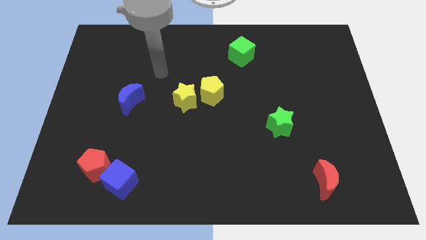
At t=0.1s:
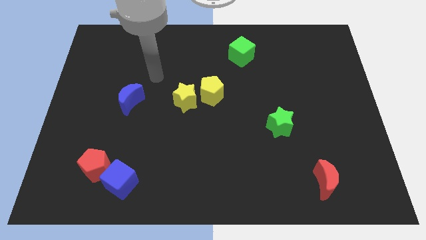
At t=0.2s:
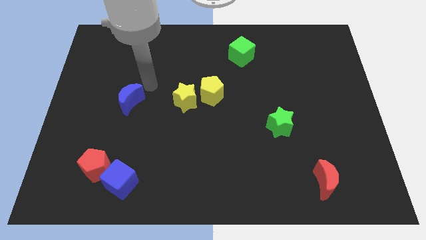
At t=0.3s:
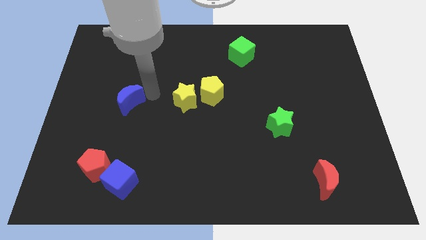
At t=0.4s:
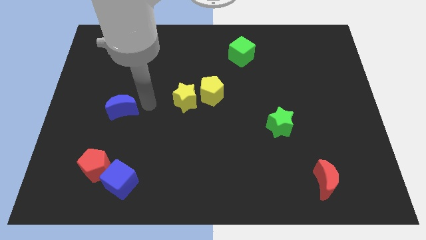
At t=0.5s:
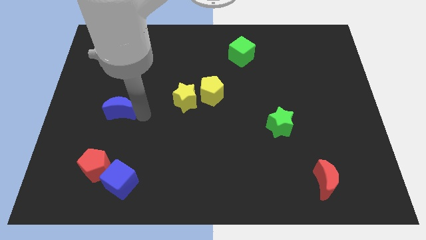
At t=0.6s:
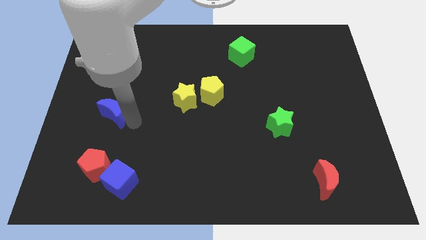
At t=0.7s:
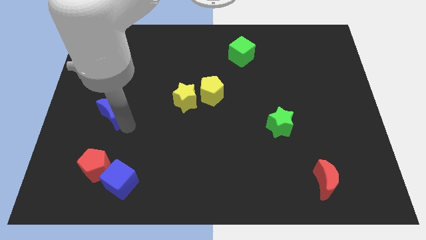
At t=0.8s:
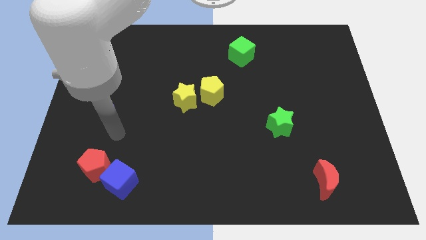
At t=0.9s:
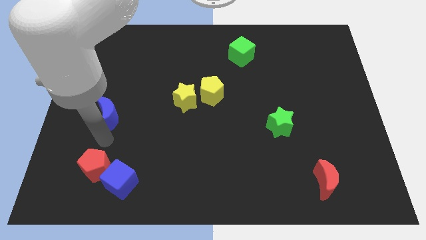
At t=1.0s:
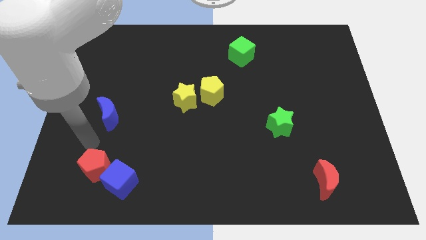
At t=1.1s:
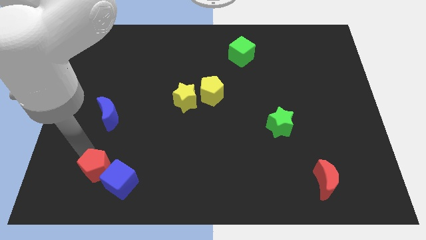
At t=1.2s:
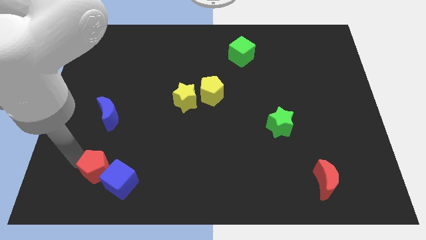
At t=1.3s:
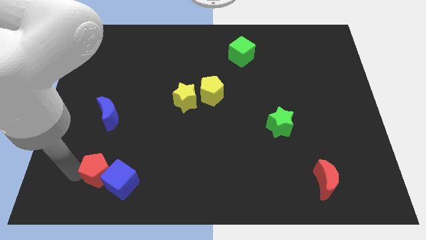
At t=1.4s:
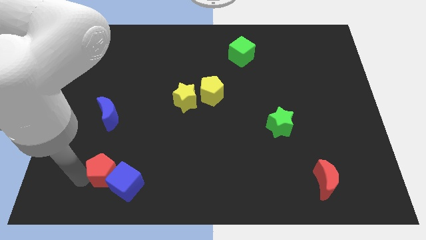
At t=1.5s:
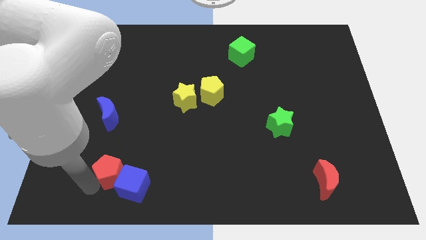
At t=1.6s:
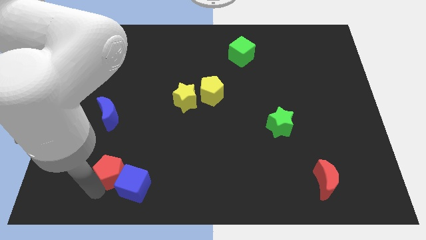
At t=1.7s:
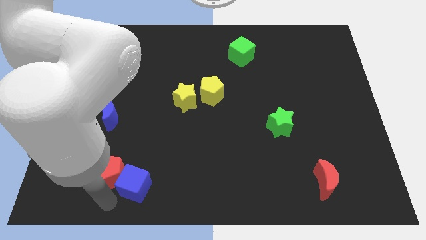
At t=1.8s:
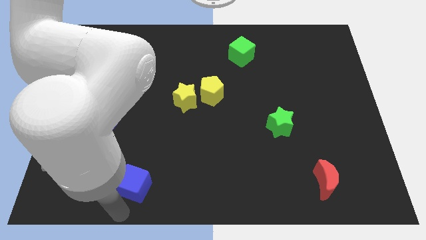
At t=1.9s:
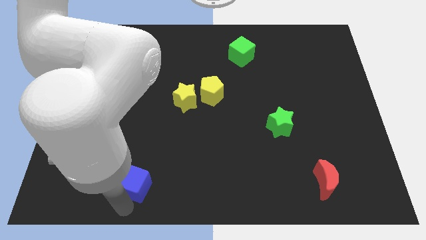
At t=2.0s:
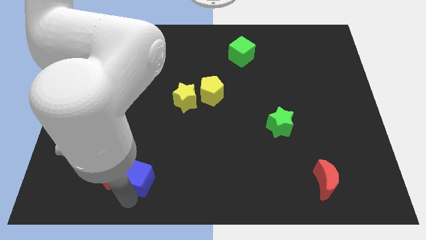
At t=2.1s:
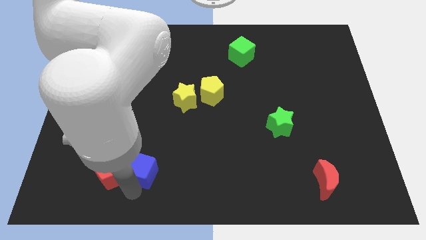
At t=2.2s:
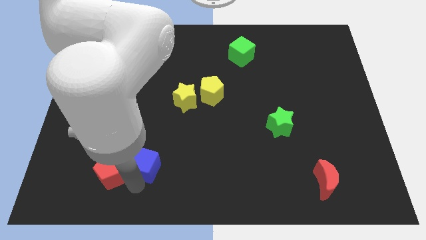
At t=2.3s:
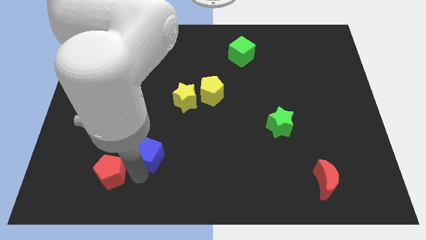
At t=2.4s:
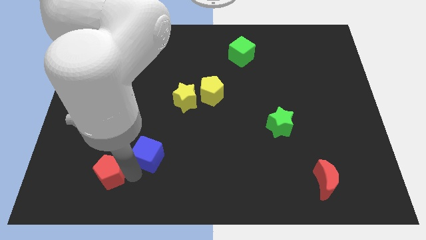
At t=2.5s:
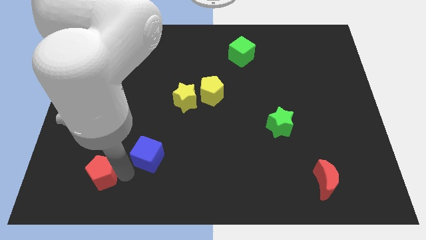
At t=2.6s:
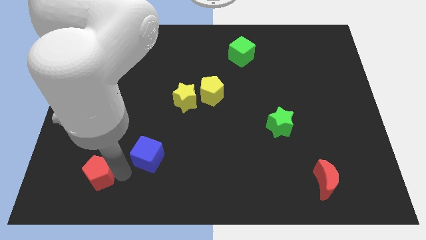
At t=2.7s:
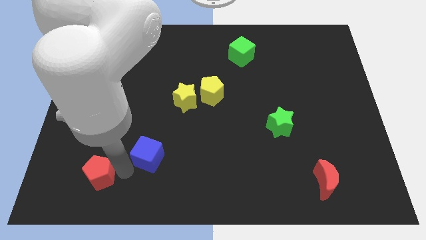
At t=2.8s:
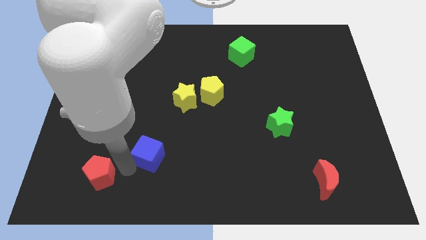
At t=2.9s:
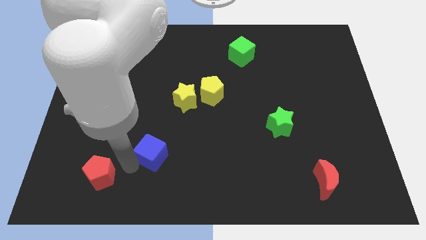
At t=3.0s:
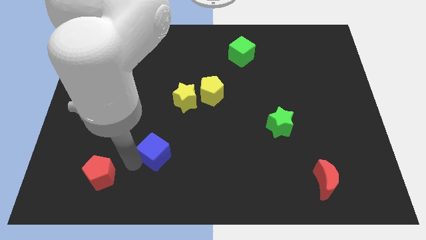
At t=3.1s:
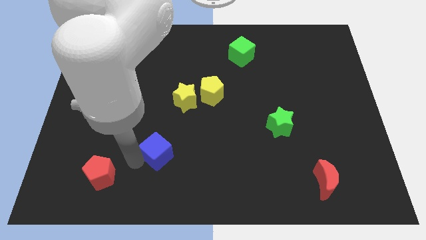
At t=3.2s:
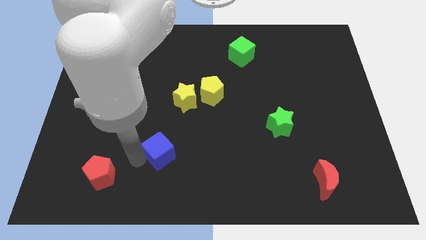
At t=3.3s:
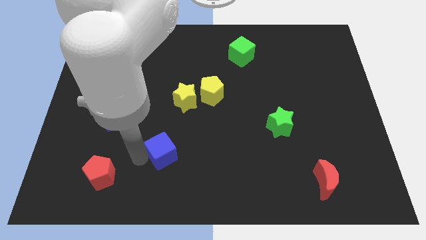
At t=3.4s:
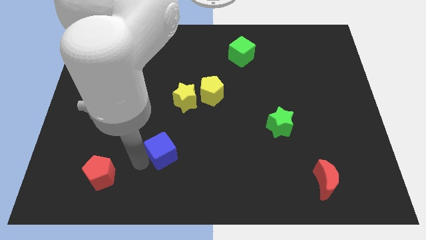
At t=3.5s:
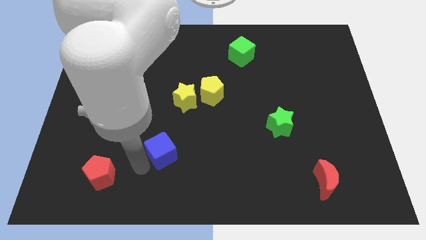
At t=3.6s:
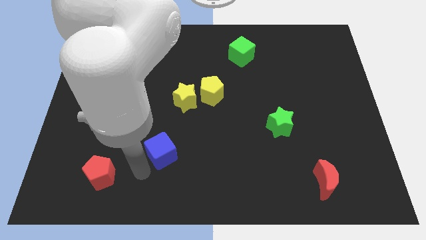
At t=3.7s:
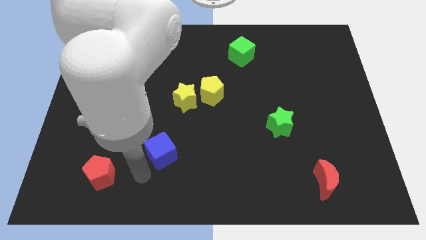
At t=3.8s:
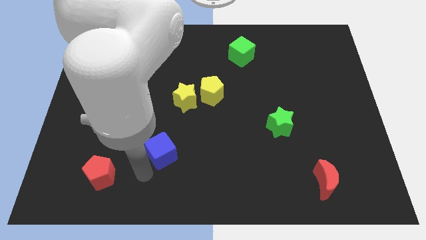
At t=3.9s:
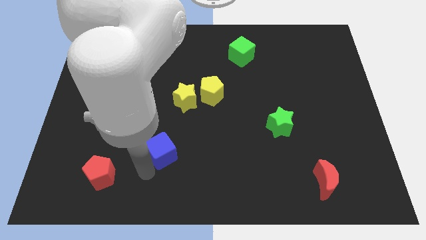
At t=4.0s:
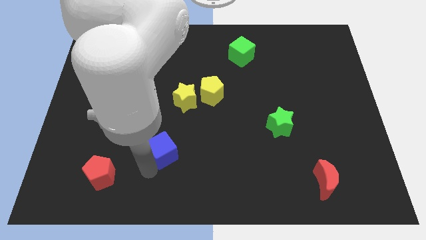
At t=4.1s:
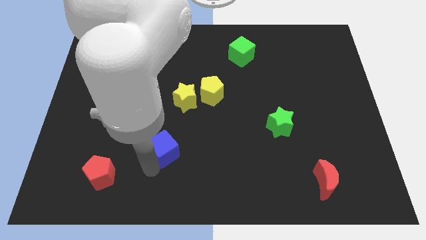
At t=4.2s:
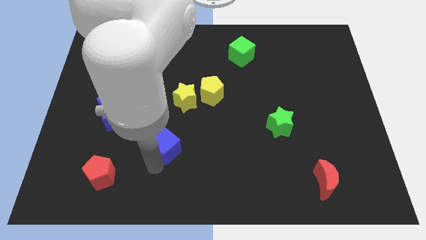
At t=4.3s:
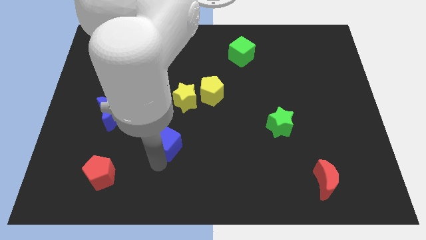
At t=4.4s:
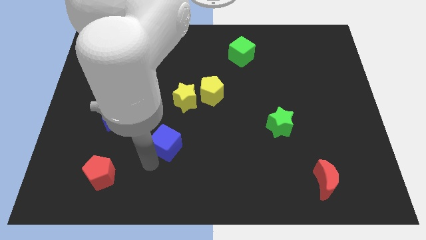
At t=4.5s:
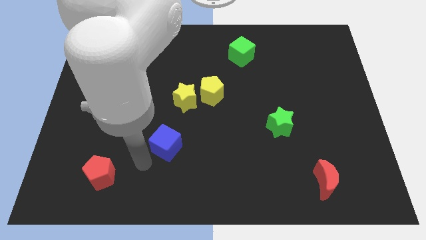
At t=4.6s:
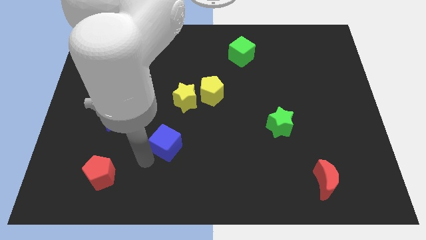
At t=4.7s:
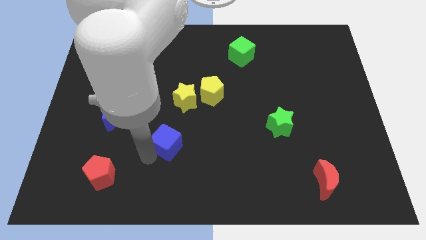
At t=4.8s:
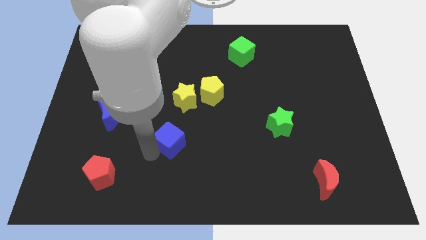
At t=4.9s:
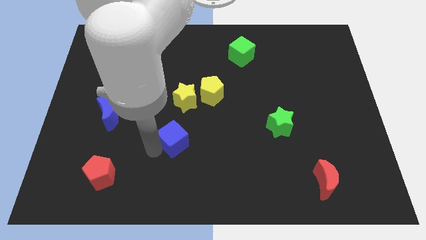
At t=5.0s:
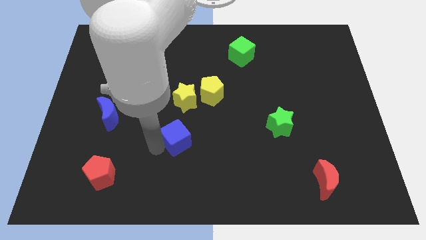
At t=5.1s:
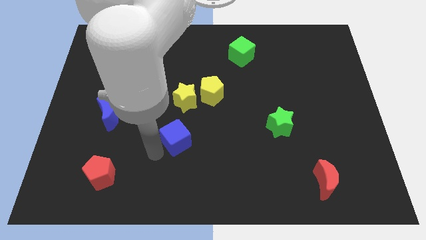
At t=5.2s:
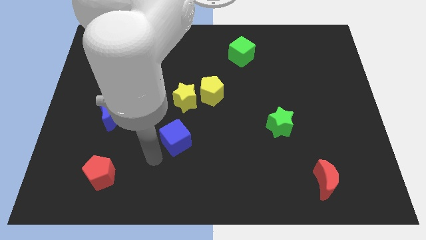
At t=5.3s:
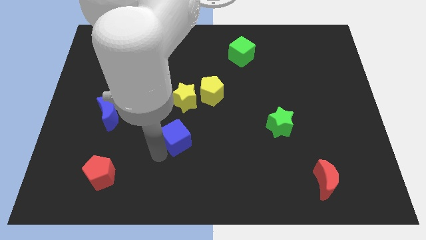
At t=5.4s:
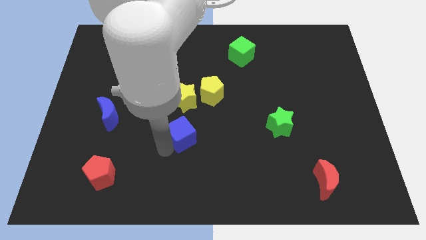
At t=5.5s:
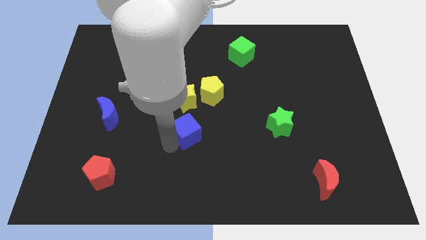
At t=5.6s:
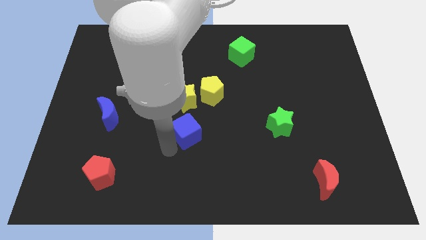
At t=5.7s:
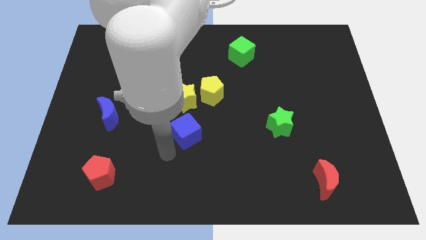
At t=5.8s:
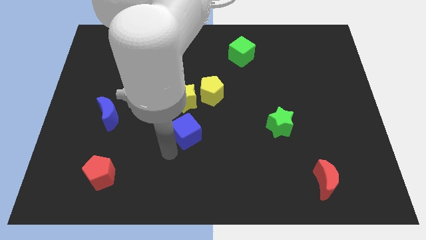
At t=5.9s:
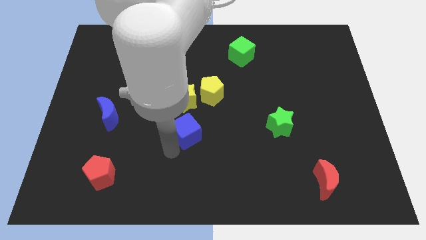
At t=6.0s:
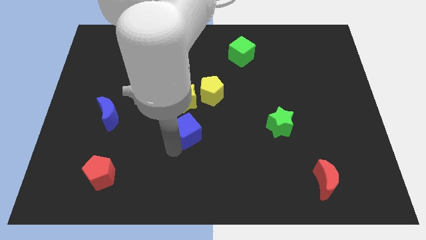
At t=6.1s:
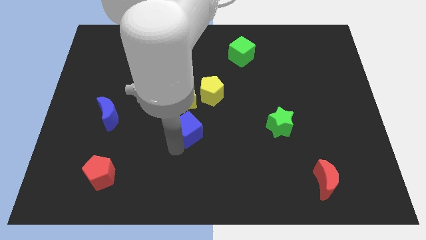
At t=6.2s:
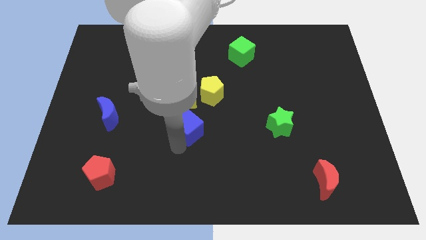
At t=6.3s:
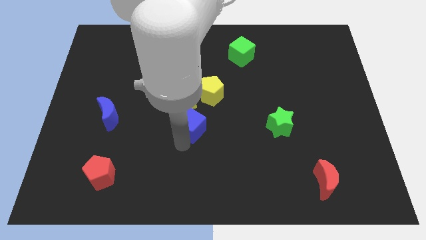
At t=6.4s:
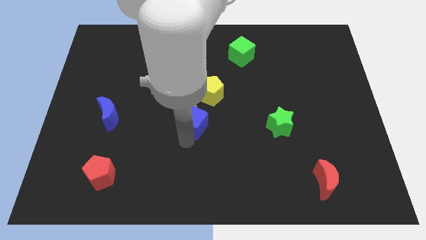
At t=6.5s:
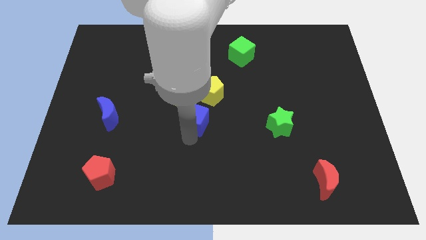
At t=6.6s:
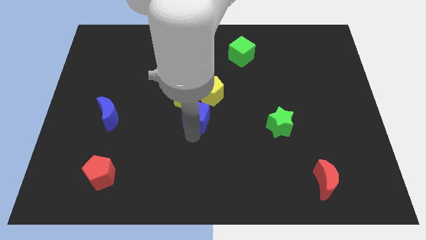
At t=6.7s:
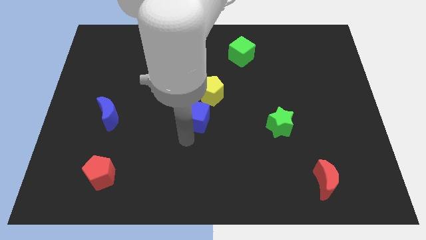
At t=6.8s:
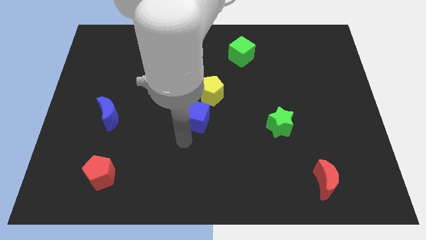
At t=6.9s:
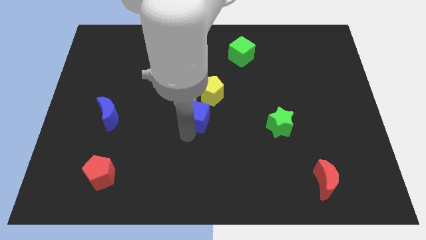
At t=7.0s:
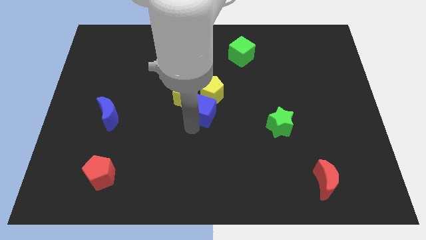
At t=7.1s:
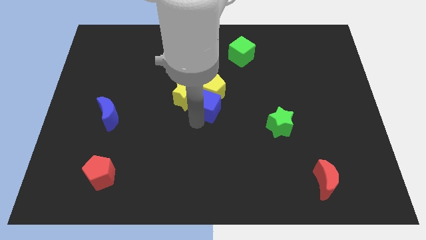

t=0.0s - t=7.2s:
slide the blue cube close to the yellow pentagon
